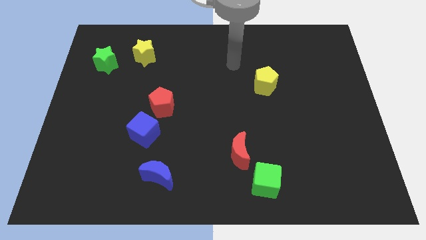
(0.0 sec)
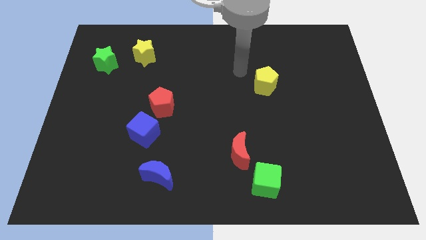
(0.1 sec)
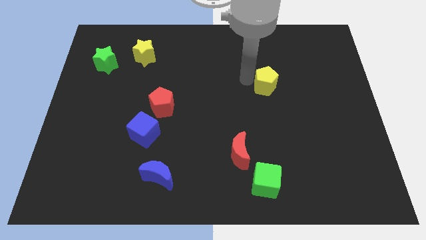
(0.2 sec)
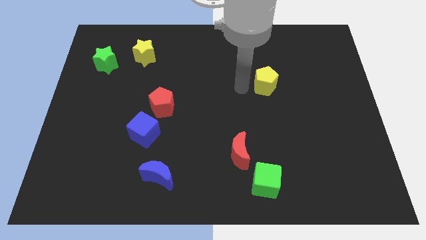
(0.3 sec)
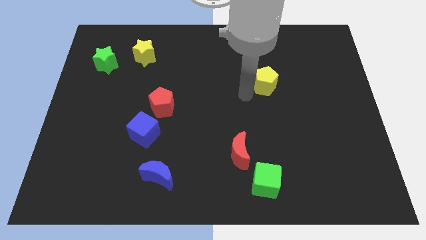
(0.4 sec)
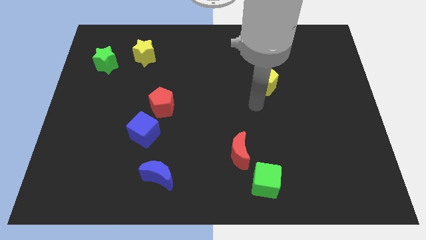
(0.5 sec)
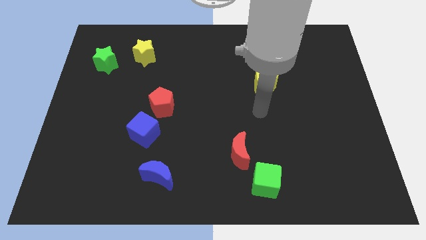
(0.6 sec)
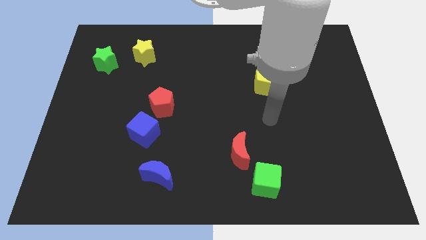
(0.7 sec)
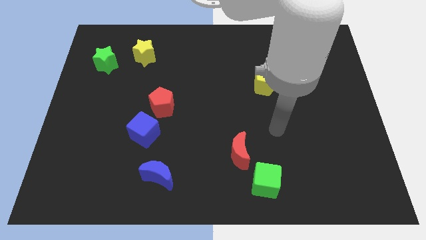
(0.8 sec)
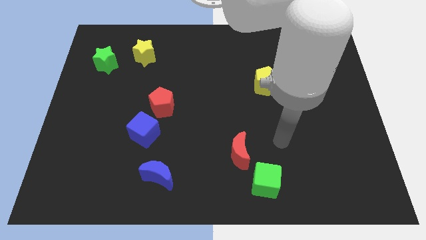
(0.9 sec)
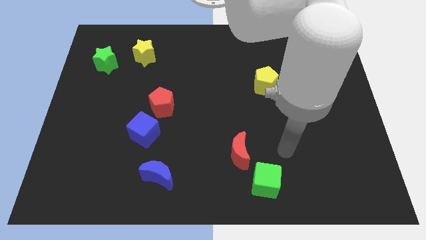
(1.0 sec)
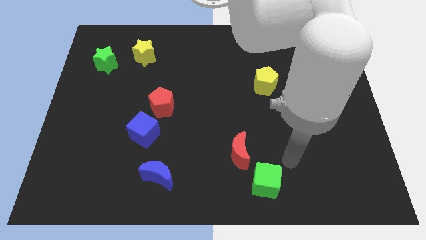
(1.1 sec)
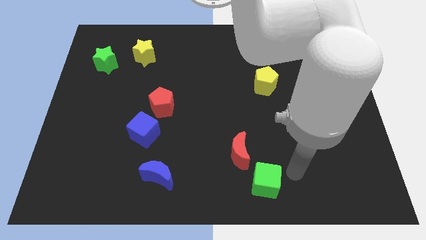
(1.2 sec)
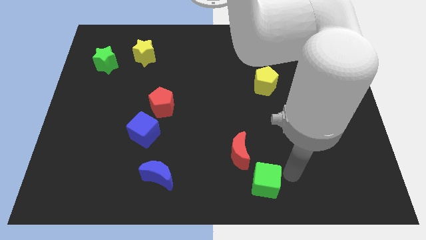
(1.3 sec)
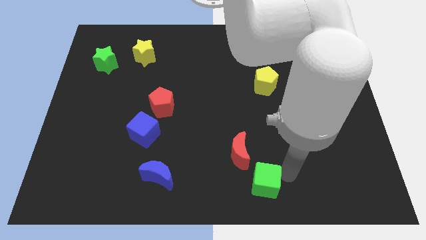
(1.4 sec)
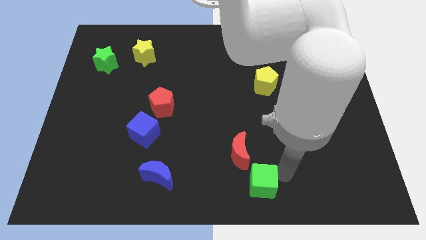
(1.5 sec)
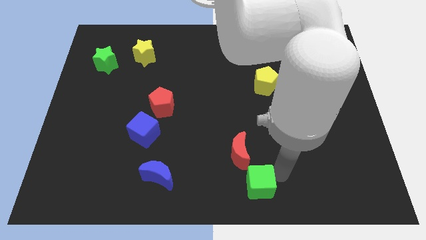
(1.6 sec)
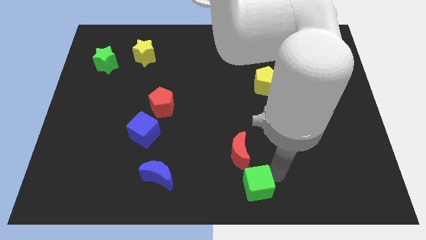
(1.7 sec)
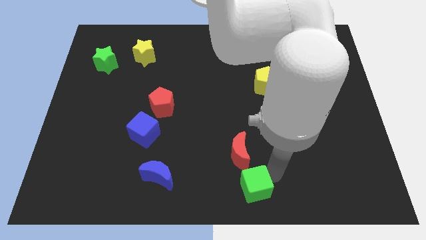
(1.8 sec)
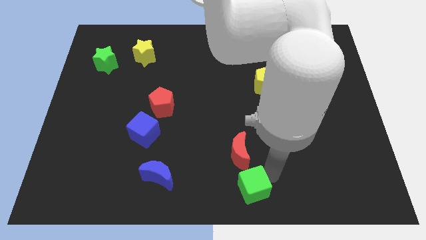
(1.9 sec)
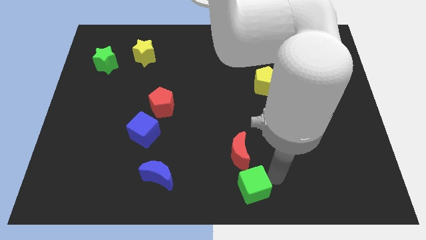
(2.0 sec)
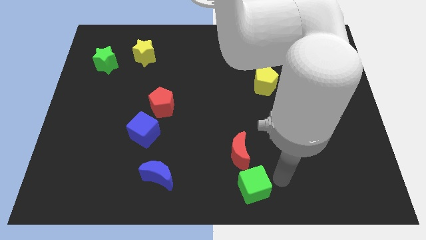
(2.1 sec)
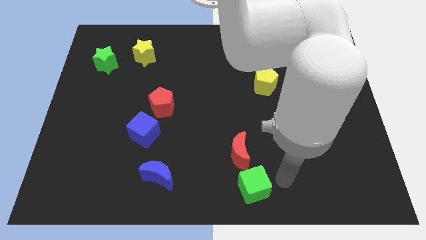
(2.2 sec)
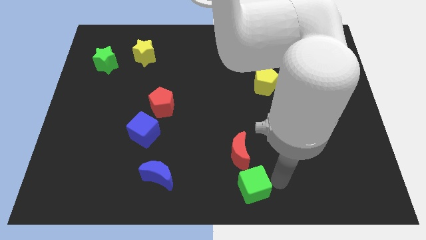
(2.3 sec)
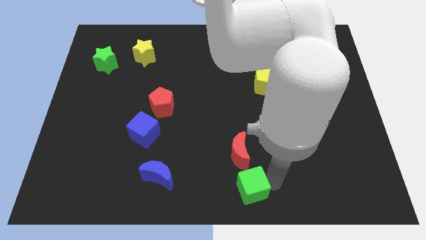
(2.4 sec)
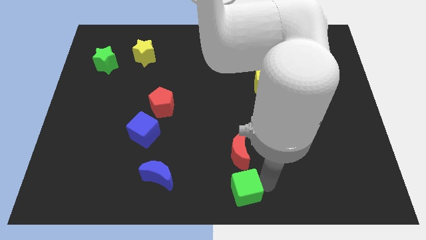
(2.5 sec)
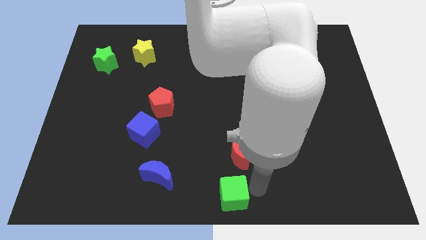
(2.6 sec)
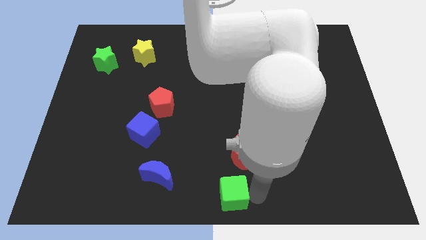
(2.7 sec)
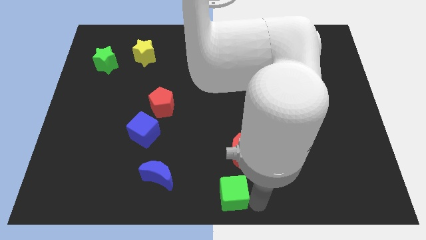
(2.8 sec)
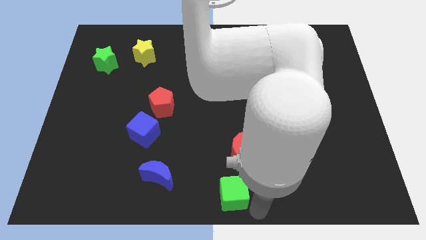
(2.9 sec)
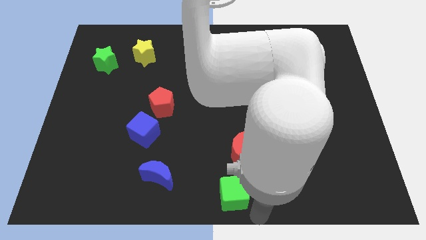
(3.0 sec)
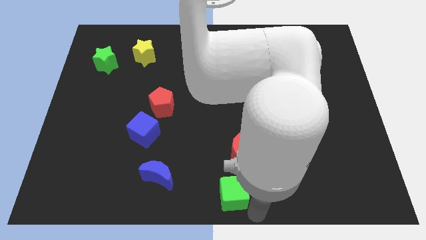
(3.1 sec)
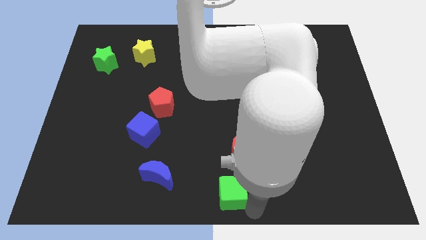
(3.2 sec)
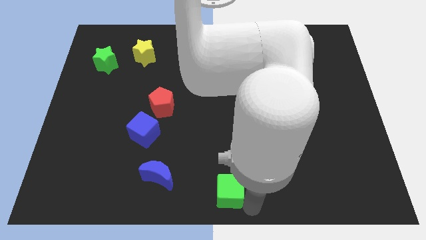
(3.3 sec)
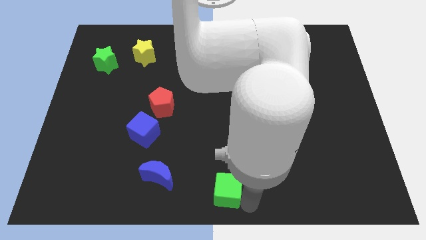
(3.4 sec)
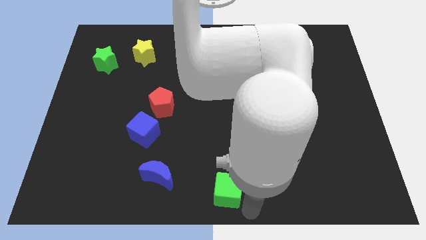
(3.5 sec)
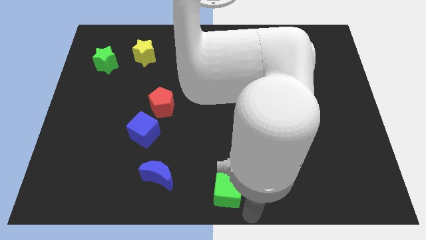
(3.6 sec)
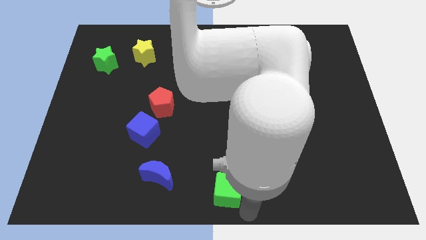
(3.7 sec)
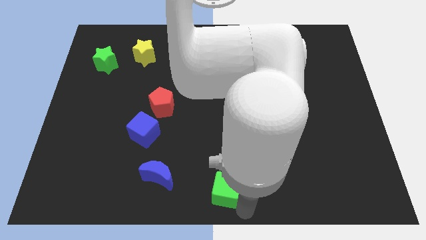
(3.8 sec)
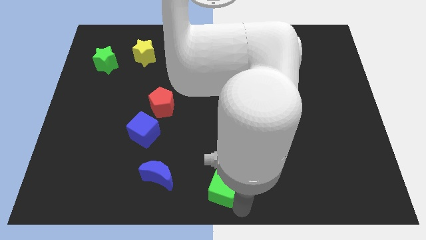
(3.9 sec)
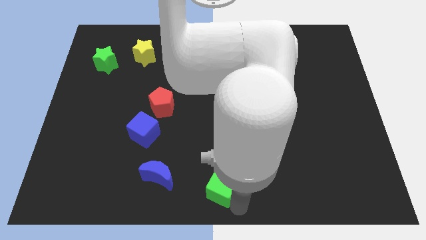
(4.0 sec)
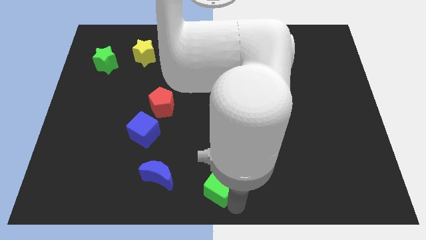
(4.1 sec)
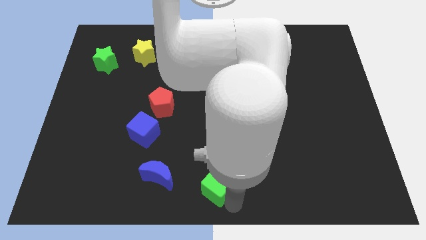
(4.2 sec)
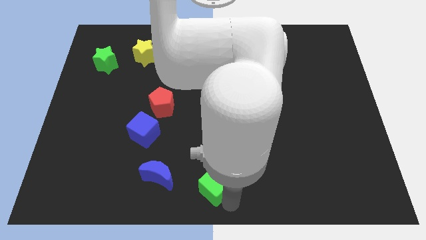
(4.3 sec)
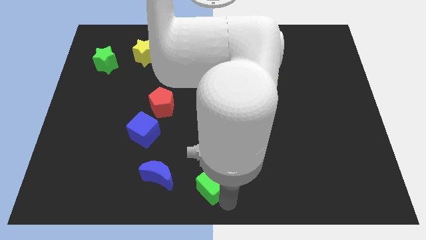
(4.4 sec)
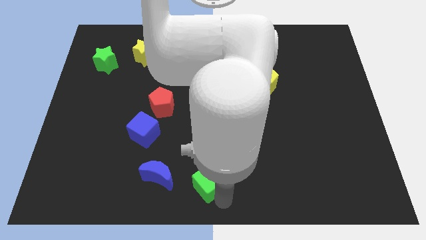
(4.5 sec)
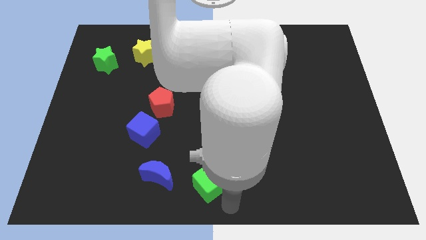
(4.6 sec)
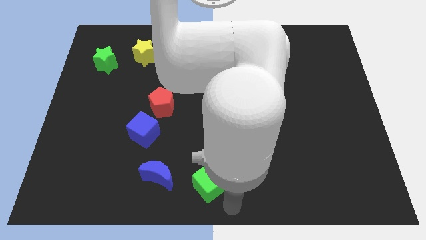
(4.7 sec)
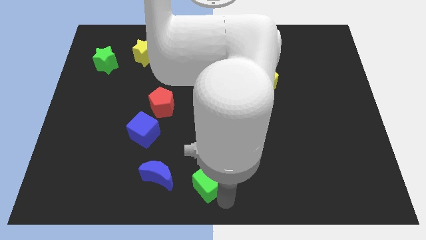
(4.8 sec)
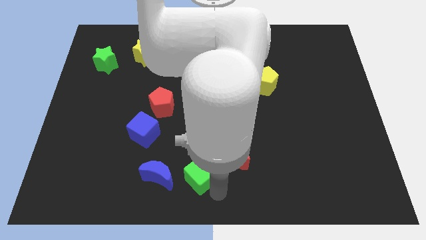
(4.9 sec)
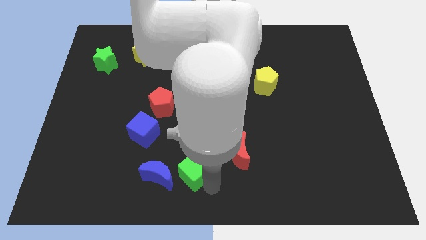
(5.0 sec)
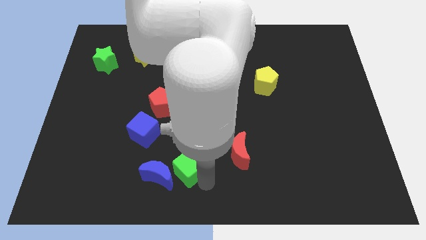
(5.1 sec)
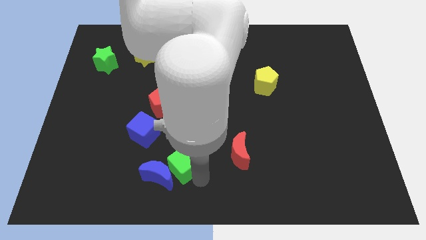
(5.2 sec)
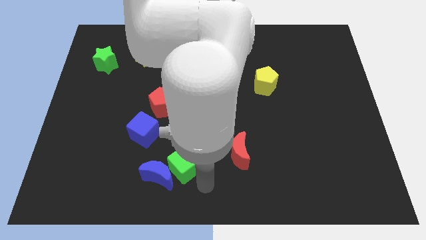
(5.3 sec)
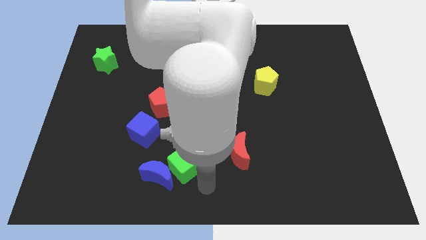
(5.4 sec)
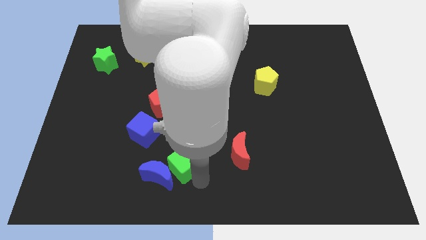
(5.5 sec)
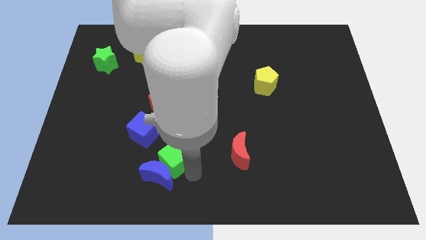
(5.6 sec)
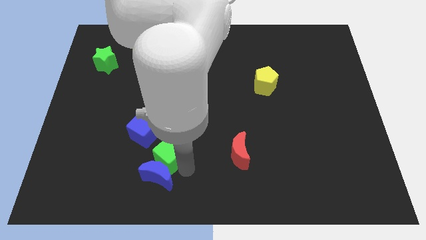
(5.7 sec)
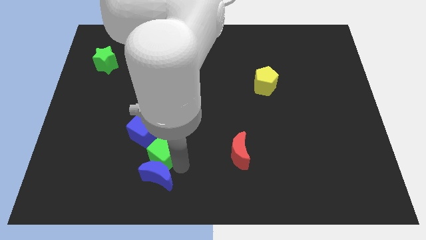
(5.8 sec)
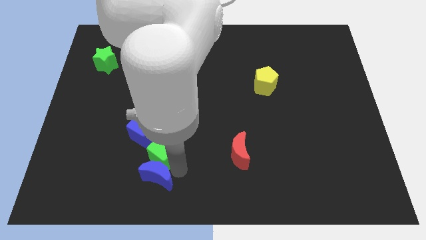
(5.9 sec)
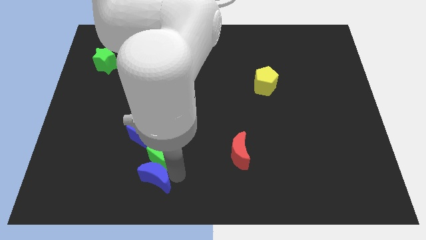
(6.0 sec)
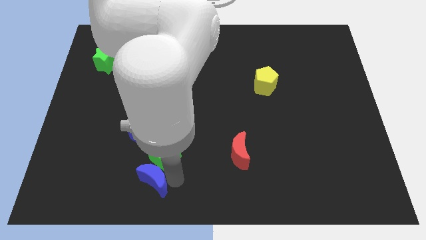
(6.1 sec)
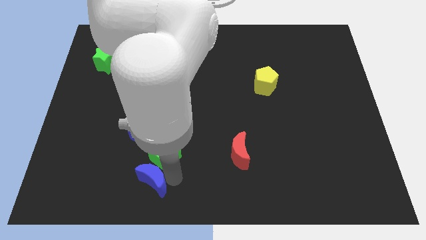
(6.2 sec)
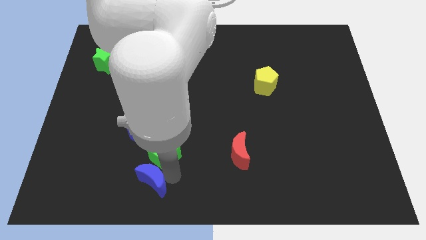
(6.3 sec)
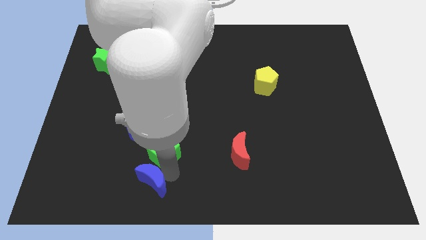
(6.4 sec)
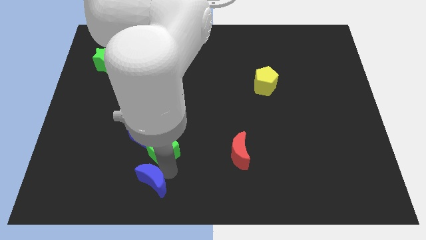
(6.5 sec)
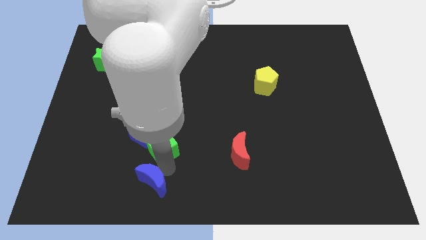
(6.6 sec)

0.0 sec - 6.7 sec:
slide the green cube to the blue cube

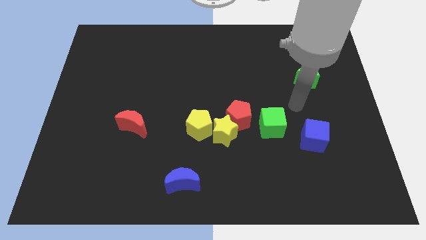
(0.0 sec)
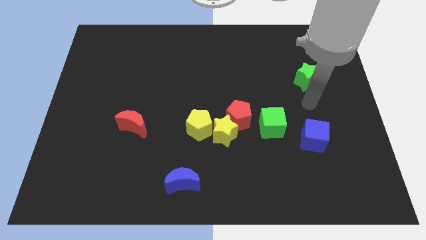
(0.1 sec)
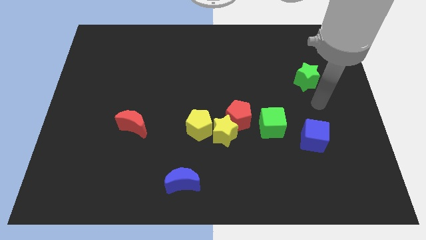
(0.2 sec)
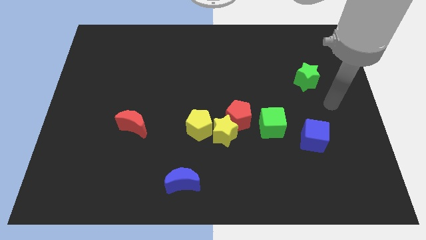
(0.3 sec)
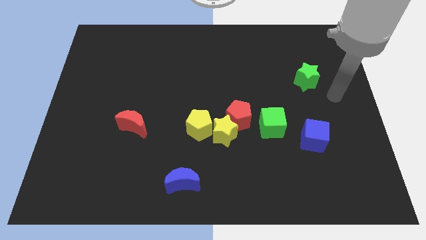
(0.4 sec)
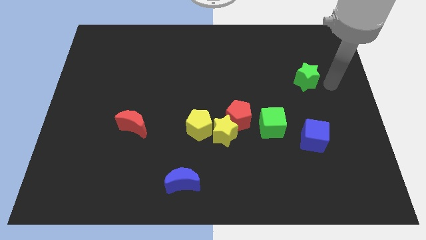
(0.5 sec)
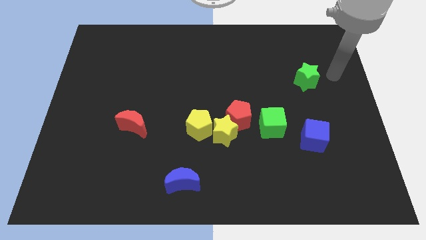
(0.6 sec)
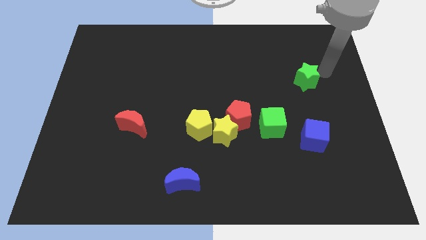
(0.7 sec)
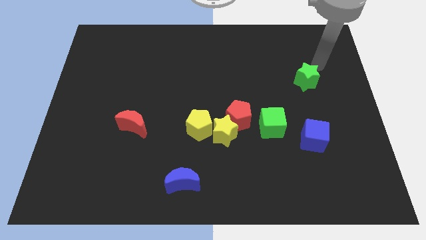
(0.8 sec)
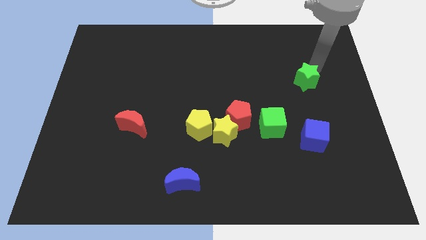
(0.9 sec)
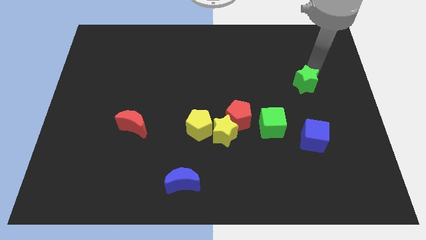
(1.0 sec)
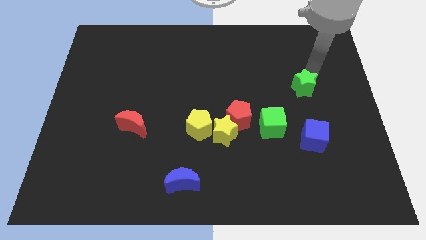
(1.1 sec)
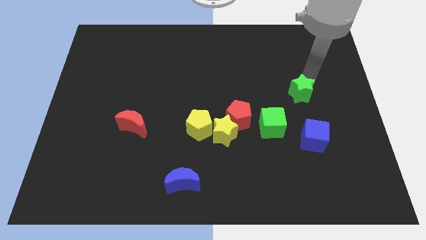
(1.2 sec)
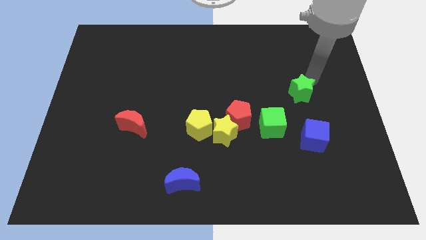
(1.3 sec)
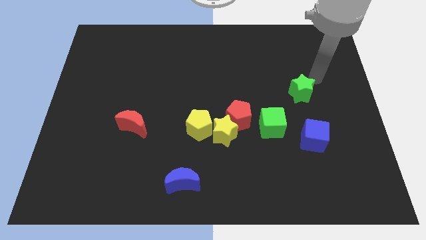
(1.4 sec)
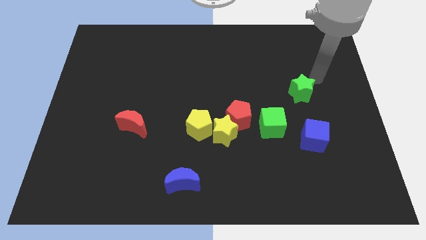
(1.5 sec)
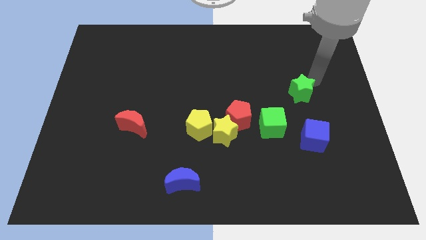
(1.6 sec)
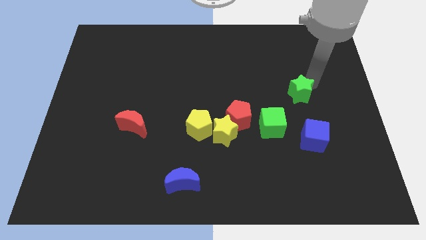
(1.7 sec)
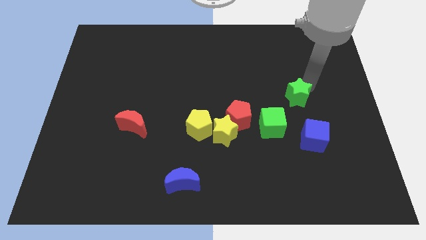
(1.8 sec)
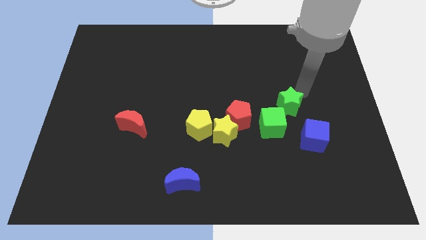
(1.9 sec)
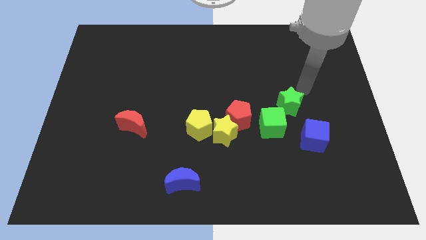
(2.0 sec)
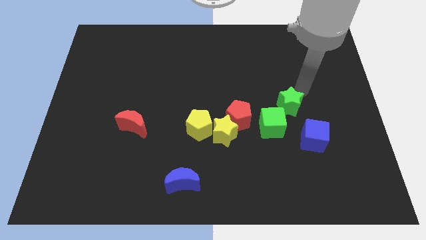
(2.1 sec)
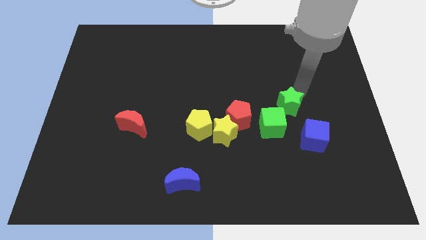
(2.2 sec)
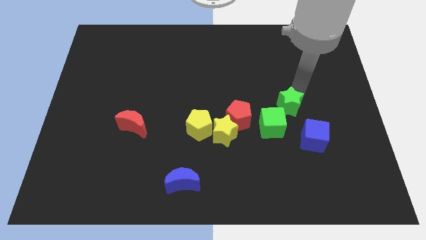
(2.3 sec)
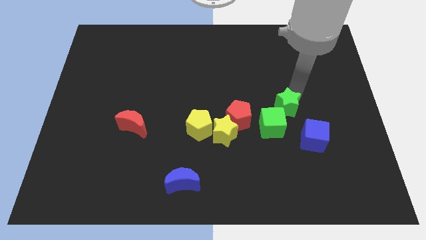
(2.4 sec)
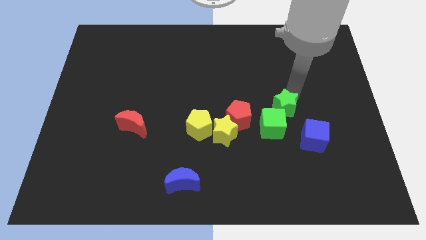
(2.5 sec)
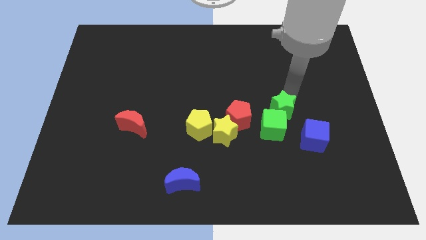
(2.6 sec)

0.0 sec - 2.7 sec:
slide the green star to the green cube
